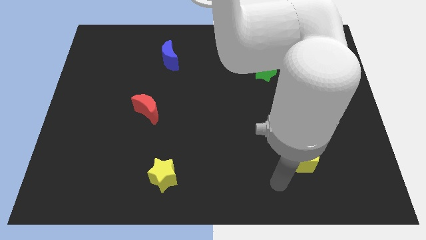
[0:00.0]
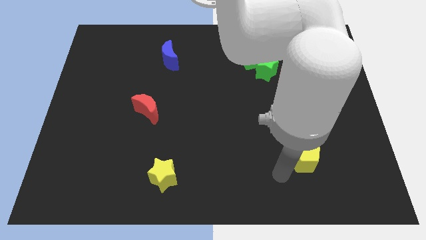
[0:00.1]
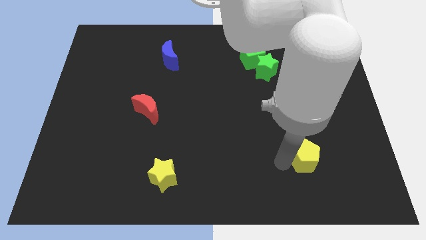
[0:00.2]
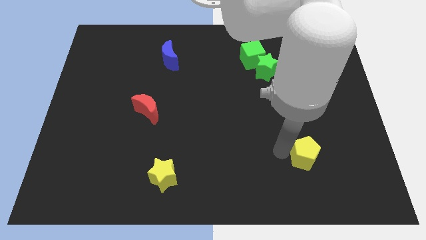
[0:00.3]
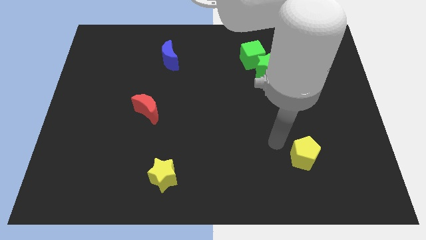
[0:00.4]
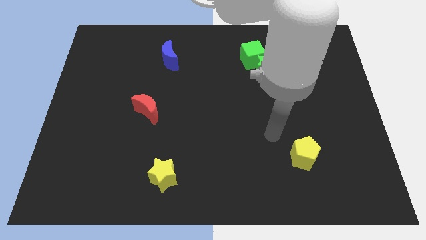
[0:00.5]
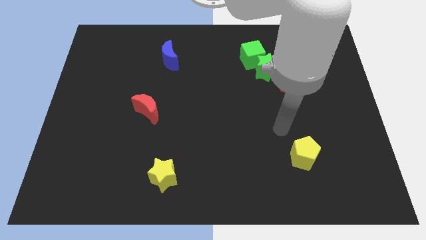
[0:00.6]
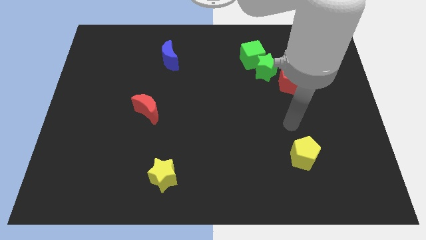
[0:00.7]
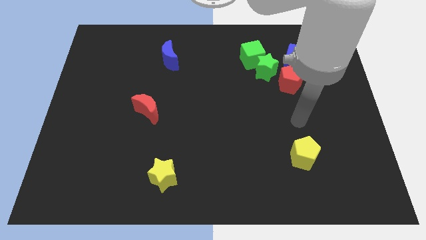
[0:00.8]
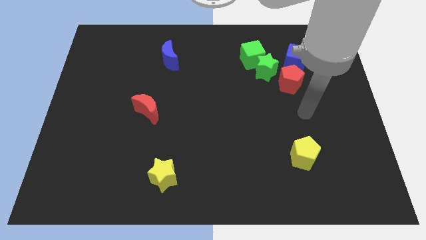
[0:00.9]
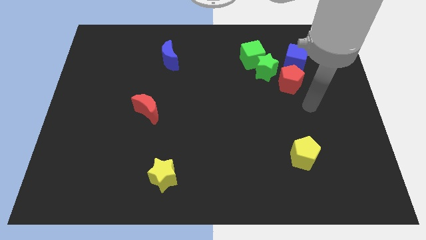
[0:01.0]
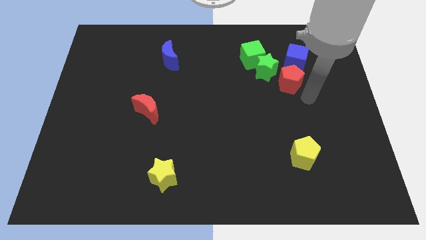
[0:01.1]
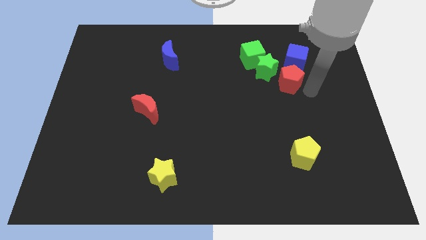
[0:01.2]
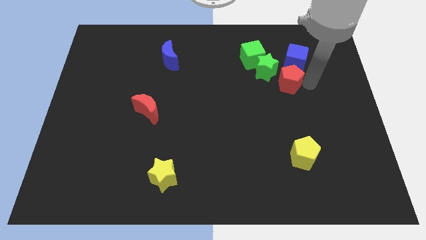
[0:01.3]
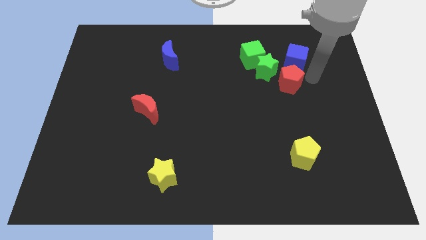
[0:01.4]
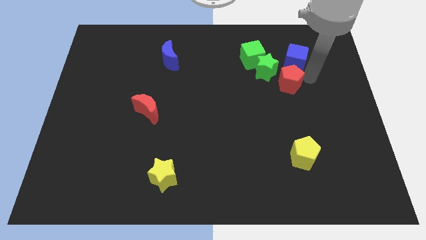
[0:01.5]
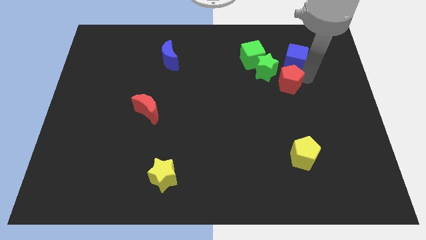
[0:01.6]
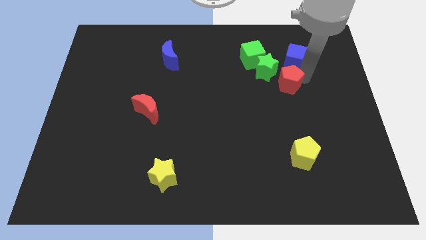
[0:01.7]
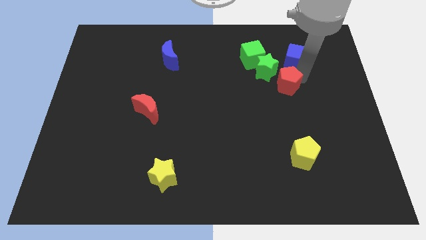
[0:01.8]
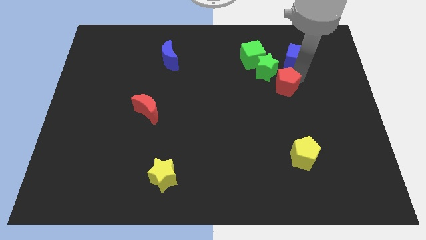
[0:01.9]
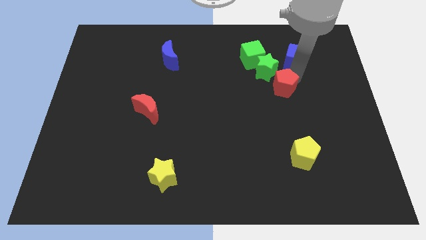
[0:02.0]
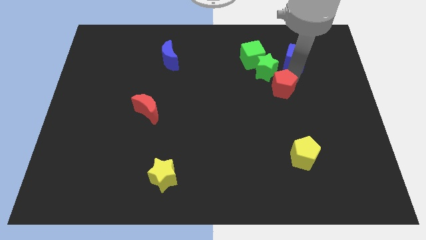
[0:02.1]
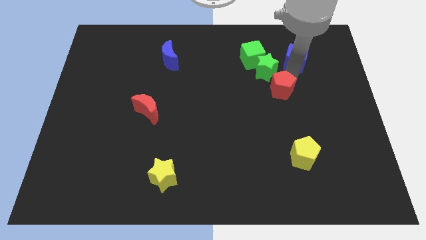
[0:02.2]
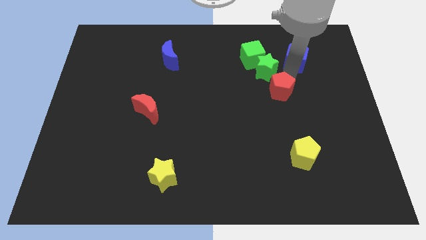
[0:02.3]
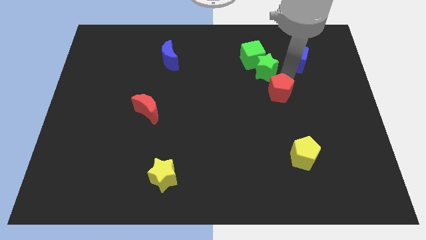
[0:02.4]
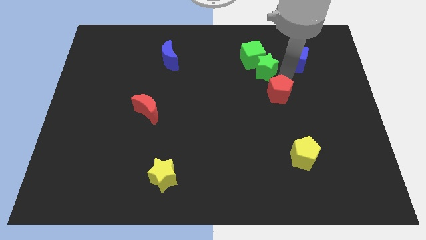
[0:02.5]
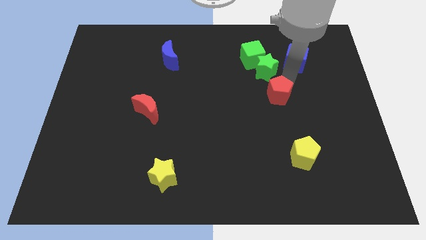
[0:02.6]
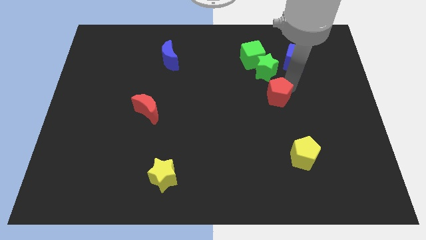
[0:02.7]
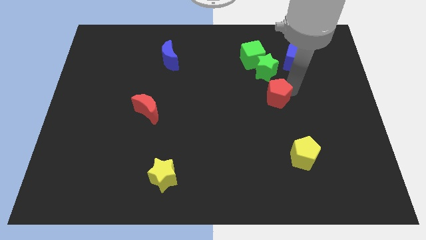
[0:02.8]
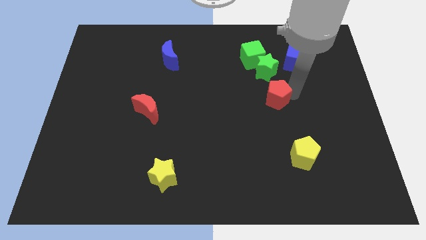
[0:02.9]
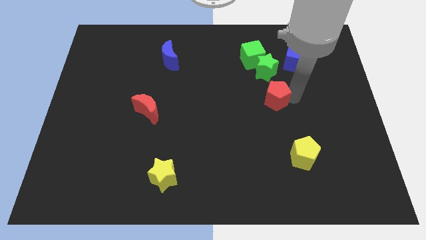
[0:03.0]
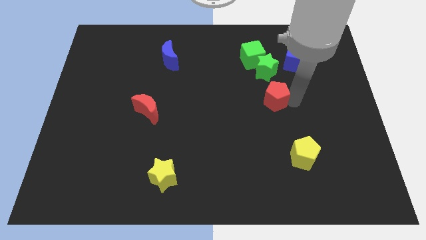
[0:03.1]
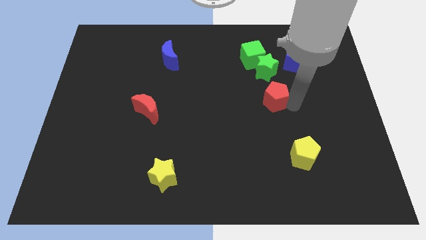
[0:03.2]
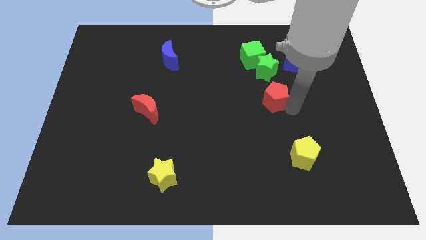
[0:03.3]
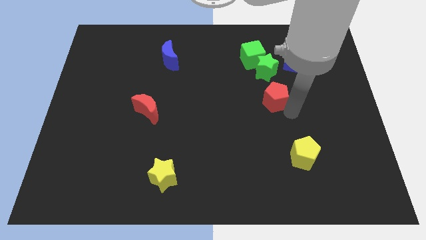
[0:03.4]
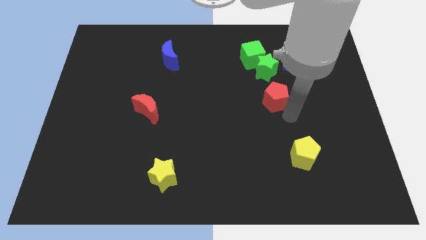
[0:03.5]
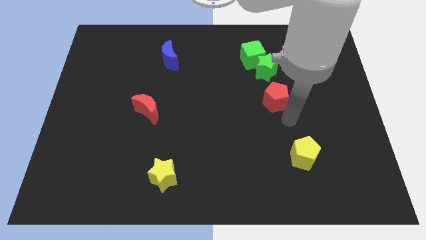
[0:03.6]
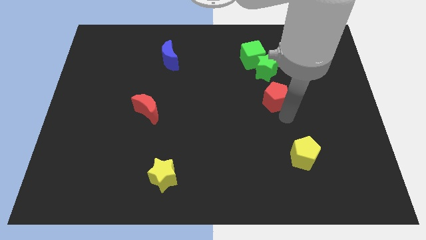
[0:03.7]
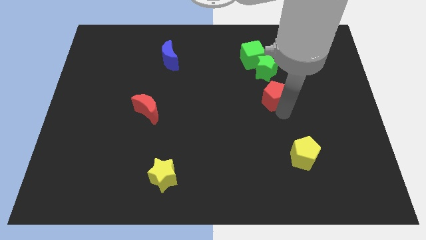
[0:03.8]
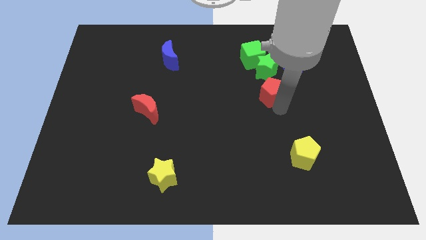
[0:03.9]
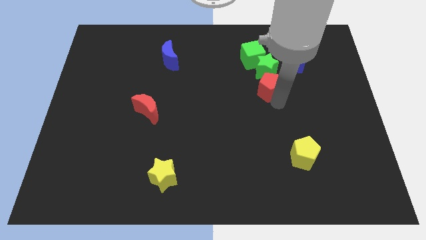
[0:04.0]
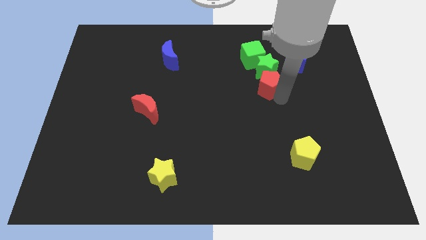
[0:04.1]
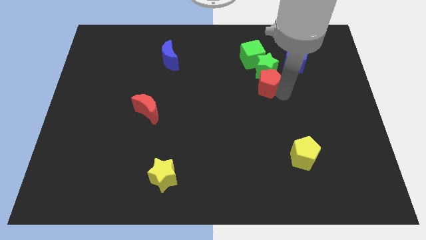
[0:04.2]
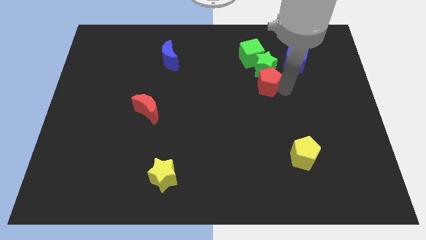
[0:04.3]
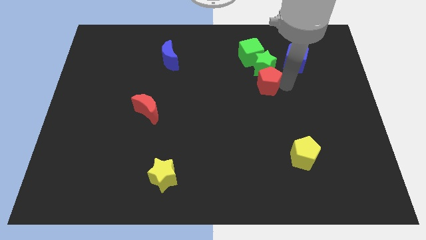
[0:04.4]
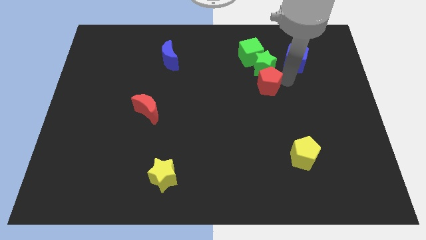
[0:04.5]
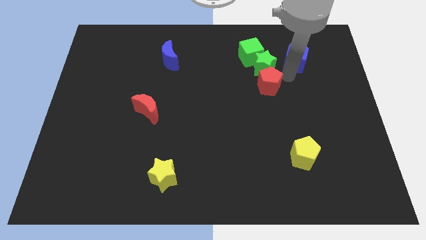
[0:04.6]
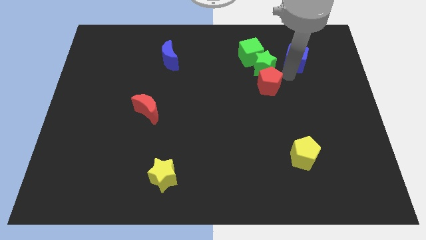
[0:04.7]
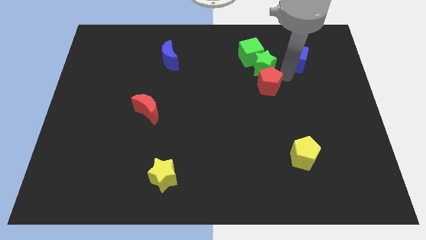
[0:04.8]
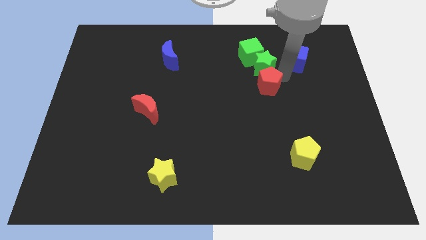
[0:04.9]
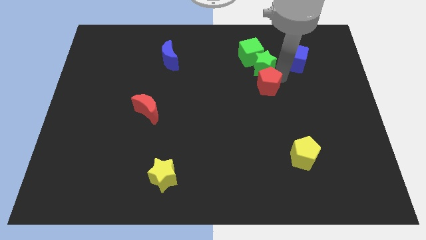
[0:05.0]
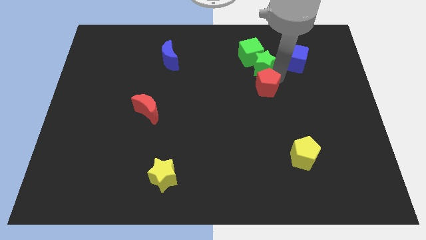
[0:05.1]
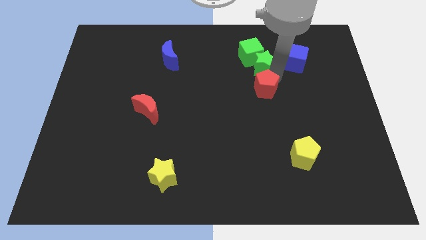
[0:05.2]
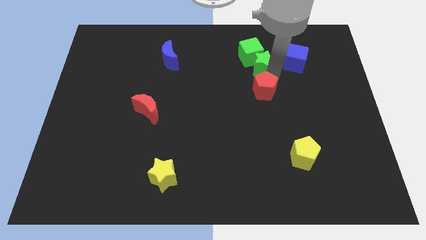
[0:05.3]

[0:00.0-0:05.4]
push the red pentagon to the middle of the board
